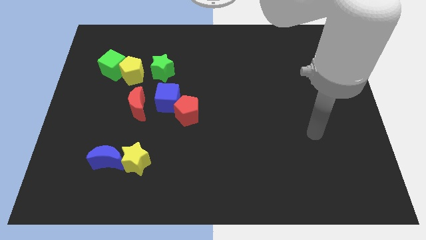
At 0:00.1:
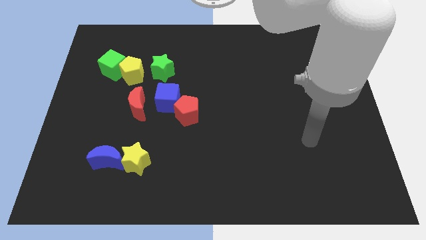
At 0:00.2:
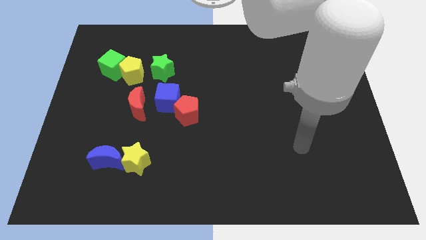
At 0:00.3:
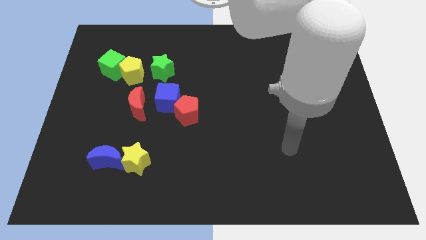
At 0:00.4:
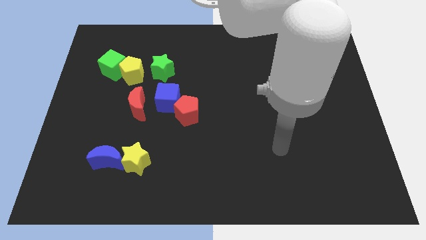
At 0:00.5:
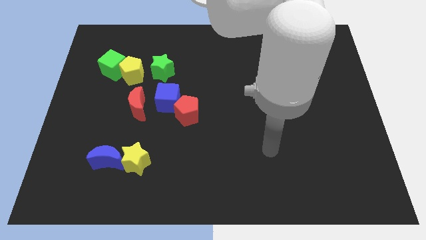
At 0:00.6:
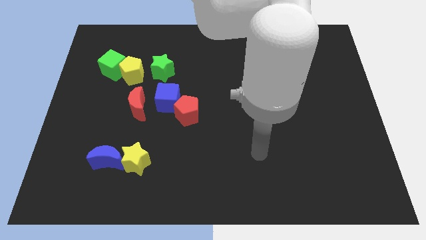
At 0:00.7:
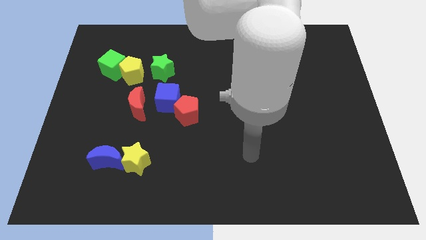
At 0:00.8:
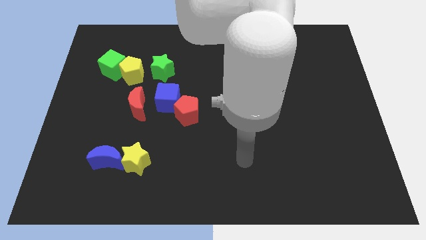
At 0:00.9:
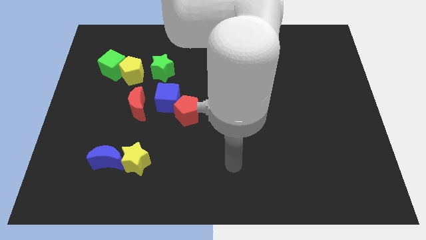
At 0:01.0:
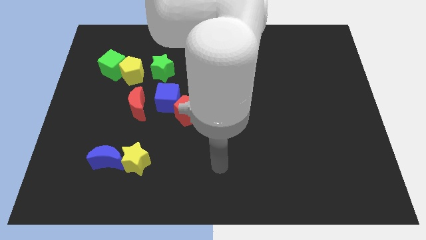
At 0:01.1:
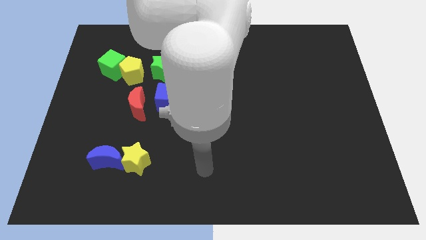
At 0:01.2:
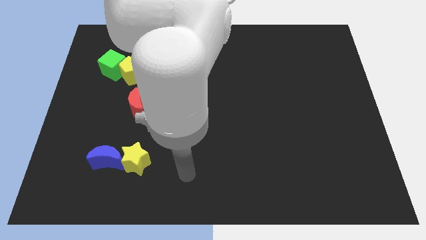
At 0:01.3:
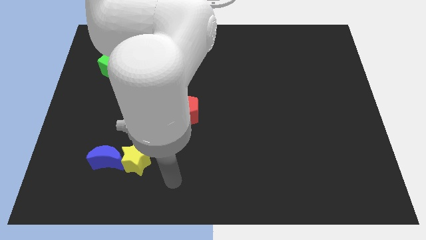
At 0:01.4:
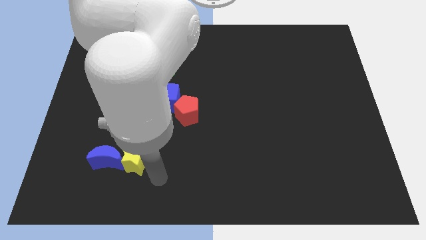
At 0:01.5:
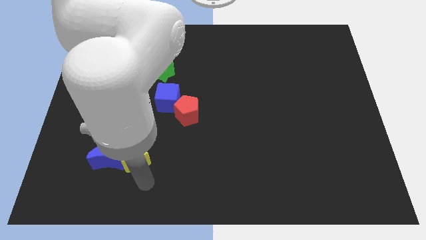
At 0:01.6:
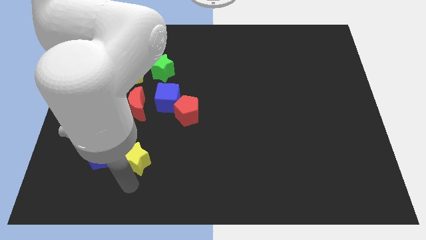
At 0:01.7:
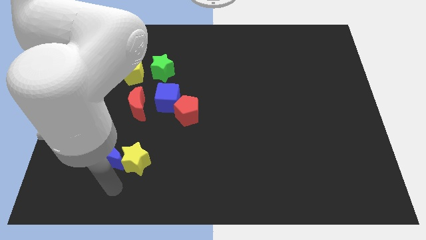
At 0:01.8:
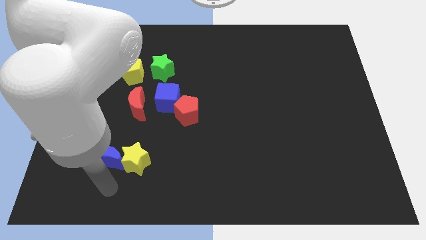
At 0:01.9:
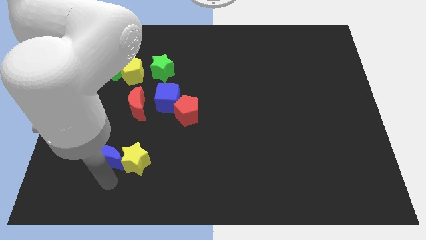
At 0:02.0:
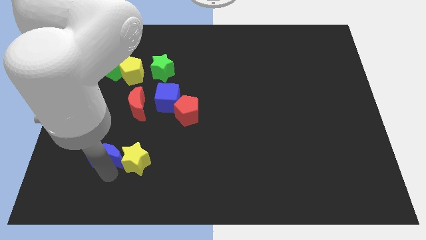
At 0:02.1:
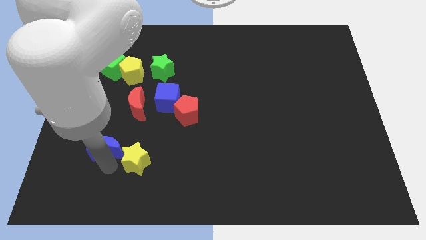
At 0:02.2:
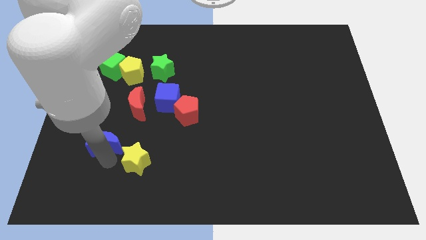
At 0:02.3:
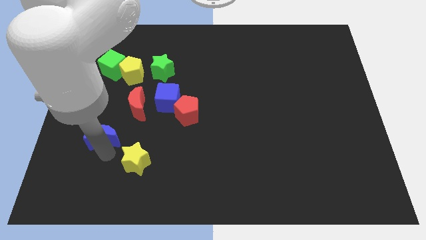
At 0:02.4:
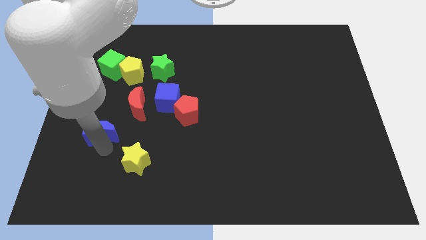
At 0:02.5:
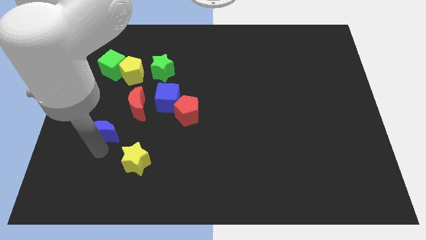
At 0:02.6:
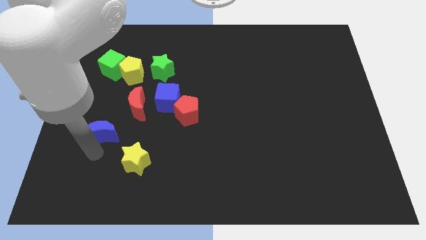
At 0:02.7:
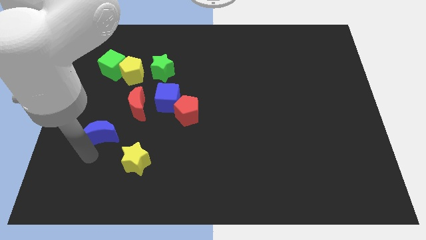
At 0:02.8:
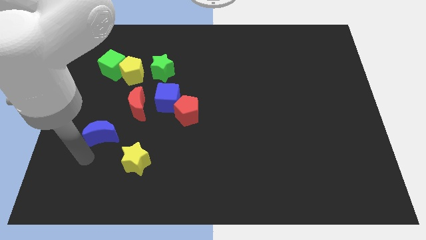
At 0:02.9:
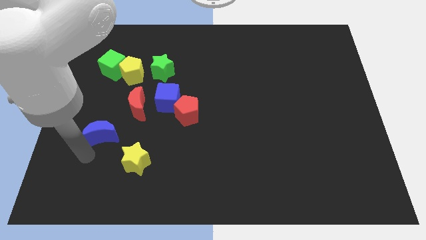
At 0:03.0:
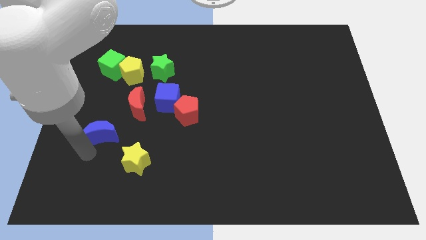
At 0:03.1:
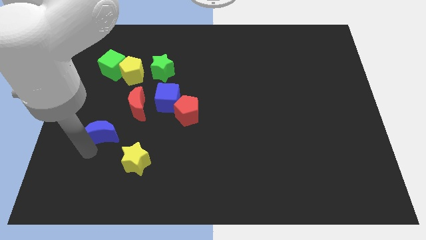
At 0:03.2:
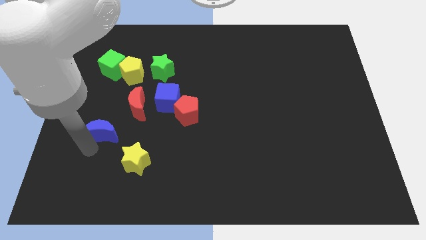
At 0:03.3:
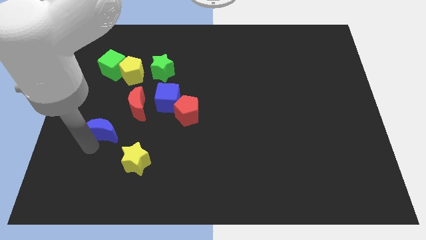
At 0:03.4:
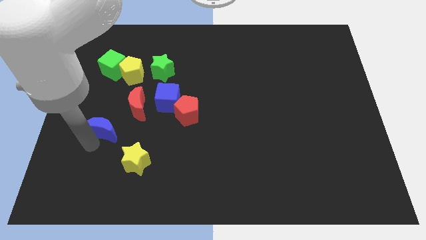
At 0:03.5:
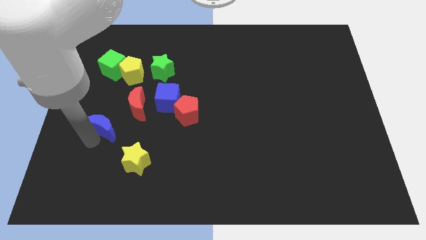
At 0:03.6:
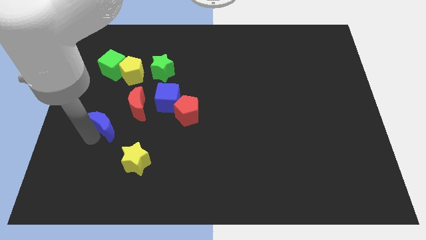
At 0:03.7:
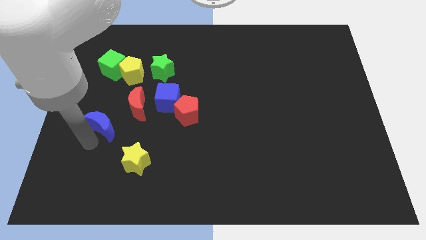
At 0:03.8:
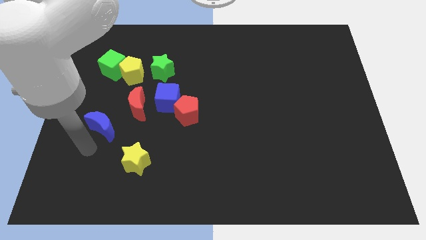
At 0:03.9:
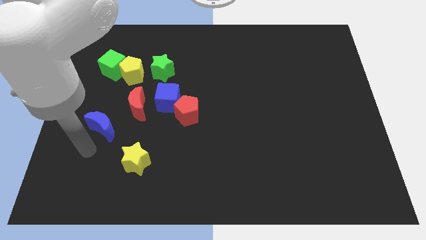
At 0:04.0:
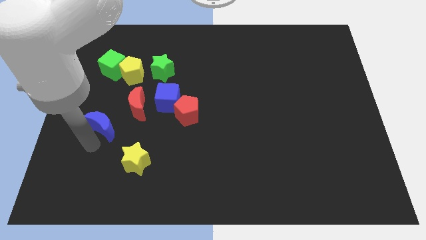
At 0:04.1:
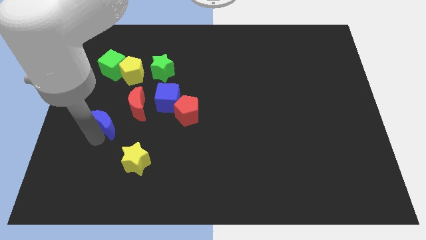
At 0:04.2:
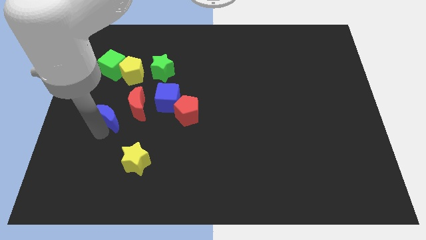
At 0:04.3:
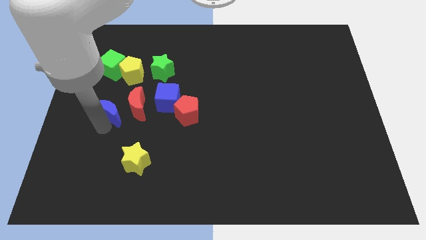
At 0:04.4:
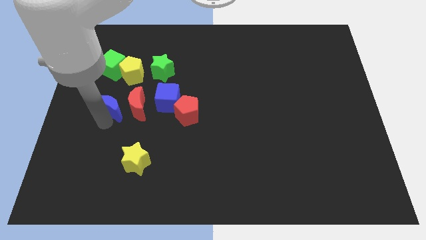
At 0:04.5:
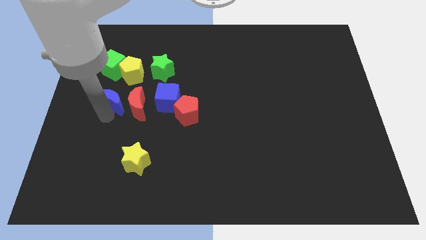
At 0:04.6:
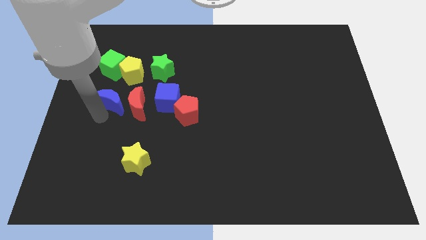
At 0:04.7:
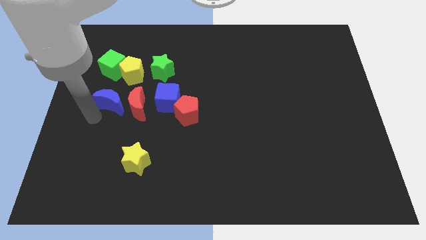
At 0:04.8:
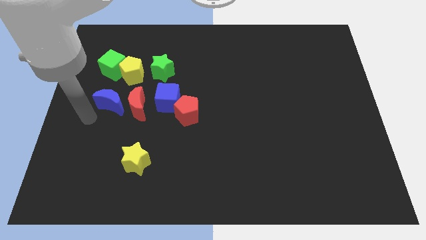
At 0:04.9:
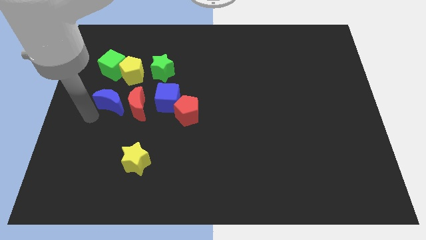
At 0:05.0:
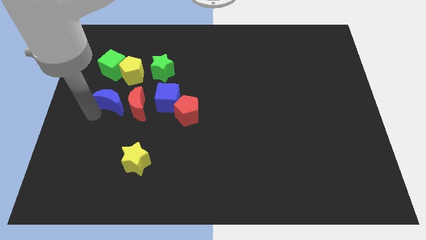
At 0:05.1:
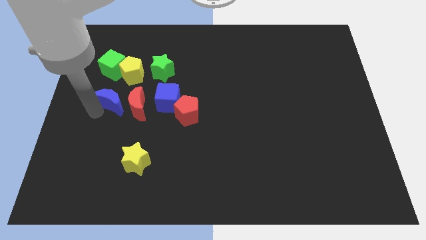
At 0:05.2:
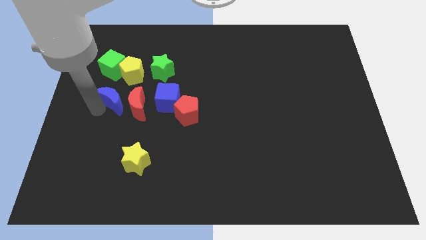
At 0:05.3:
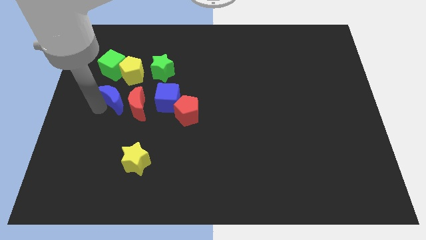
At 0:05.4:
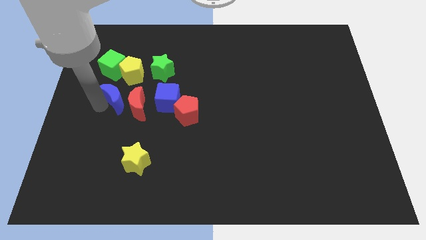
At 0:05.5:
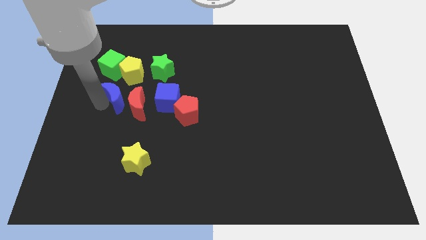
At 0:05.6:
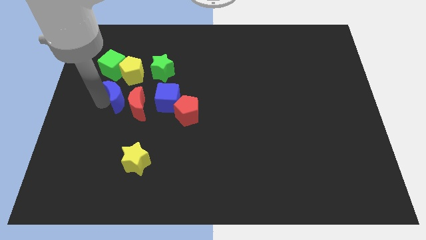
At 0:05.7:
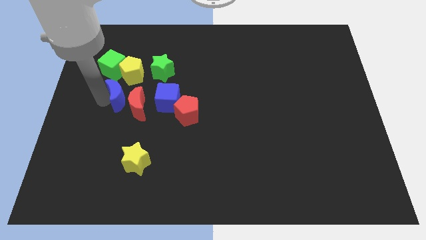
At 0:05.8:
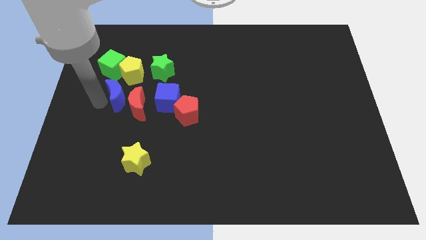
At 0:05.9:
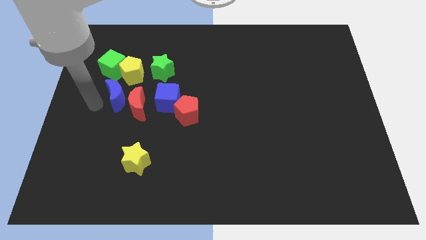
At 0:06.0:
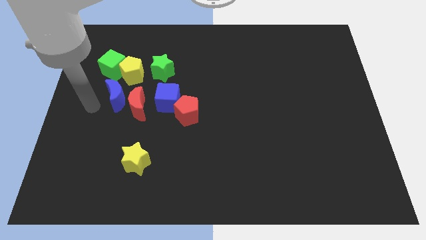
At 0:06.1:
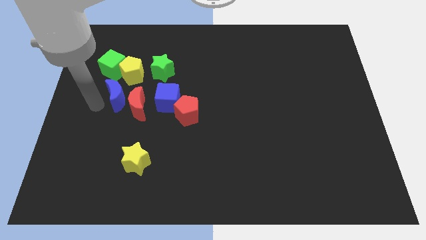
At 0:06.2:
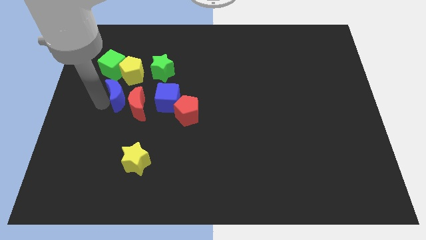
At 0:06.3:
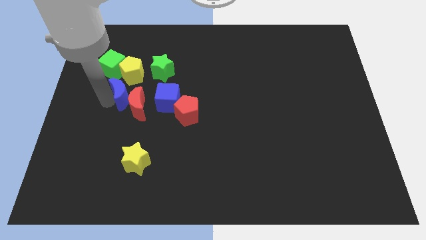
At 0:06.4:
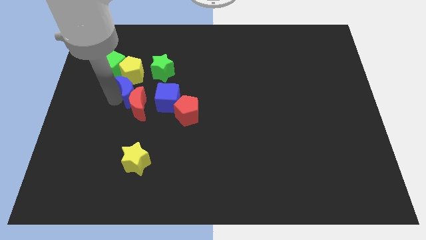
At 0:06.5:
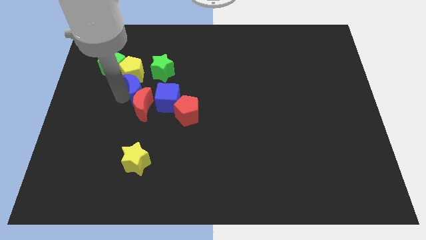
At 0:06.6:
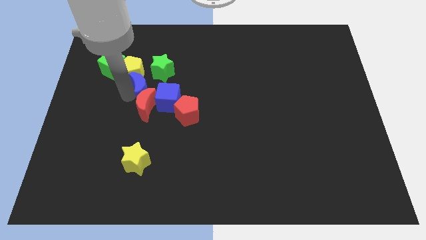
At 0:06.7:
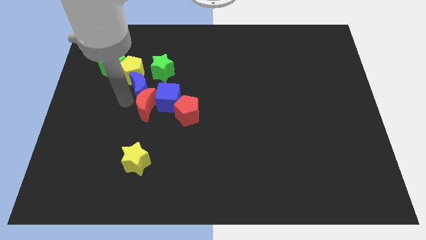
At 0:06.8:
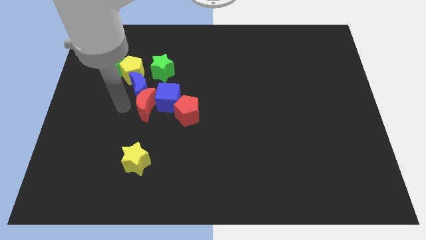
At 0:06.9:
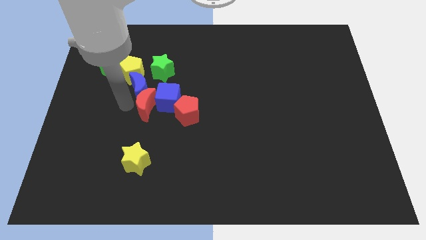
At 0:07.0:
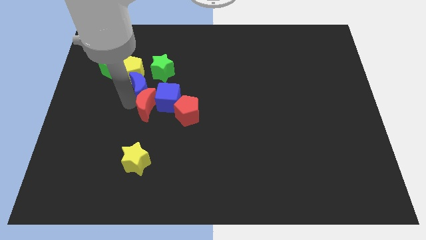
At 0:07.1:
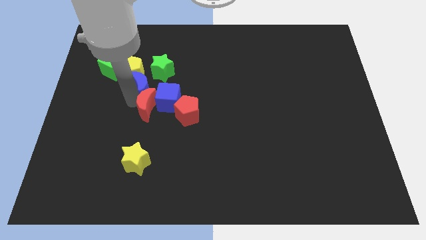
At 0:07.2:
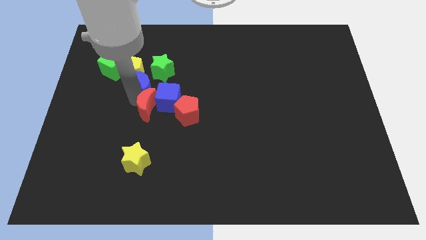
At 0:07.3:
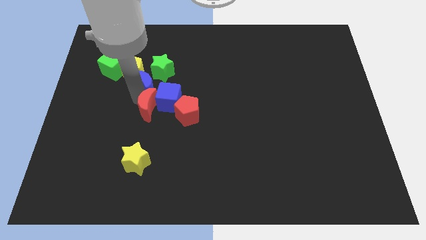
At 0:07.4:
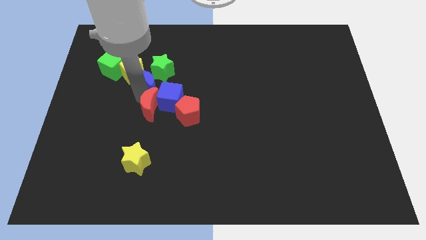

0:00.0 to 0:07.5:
slide the blue moon to the green star
